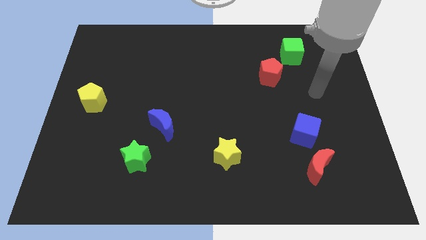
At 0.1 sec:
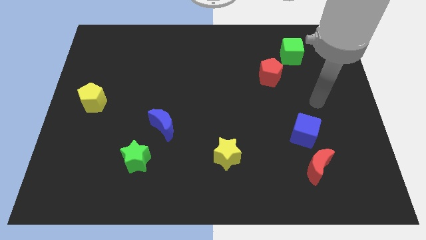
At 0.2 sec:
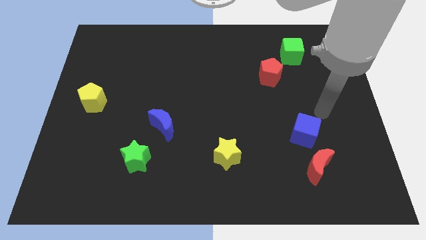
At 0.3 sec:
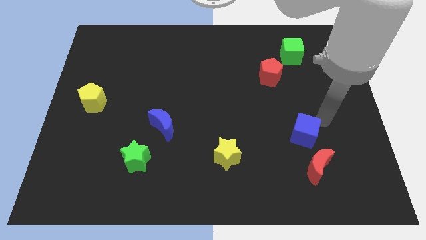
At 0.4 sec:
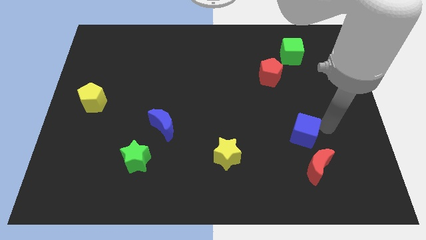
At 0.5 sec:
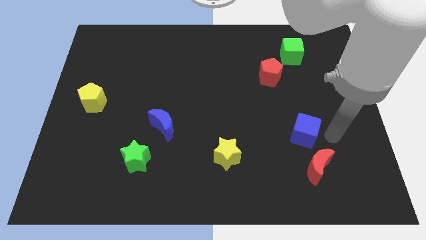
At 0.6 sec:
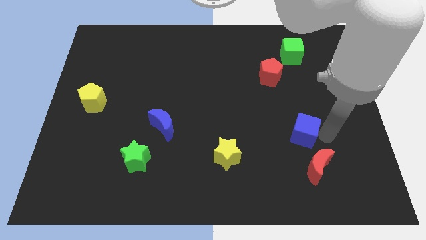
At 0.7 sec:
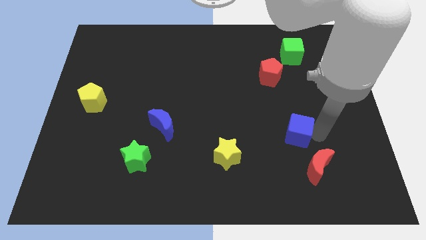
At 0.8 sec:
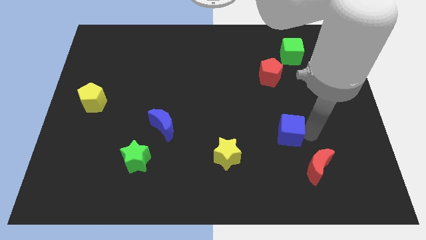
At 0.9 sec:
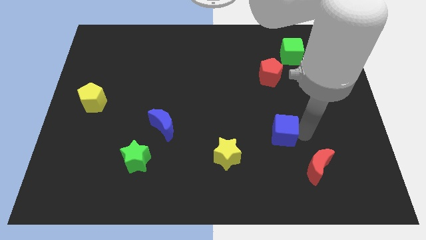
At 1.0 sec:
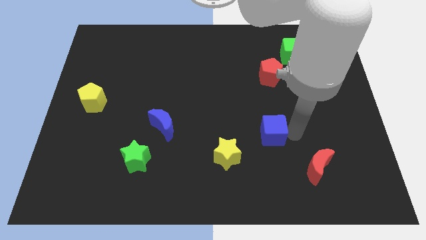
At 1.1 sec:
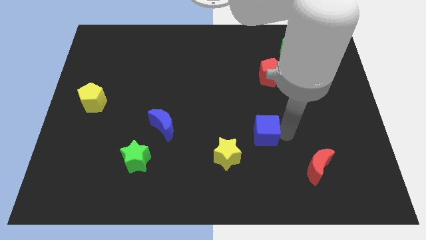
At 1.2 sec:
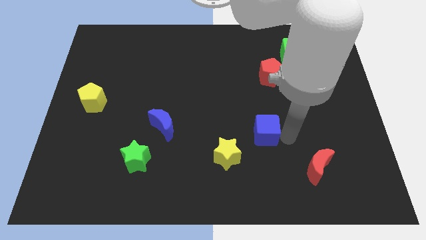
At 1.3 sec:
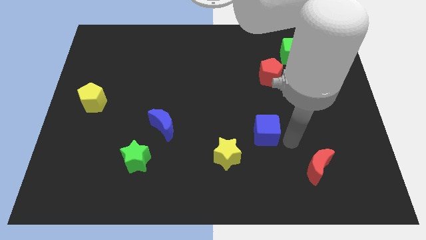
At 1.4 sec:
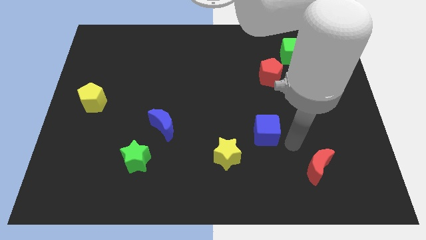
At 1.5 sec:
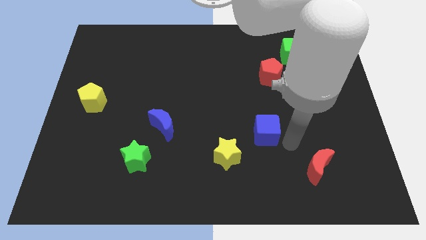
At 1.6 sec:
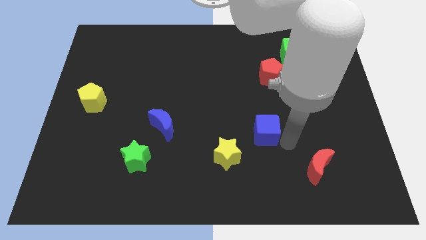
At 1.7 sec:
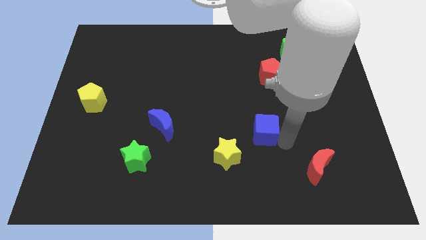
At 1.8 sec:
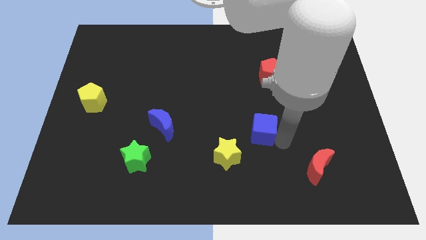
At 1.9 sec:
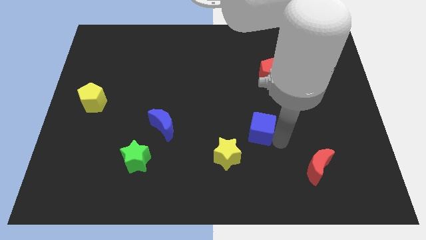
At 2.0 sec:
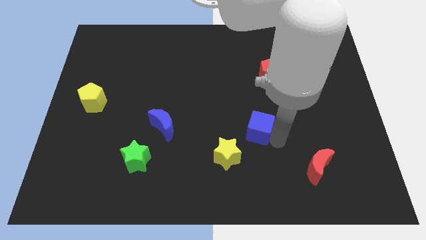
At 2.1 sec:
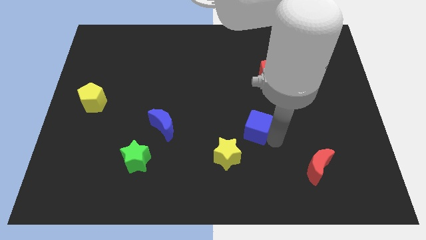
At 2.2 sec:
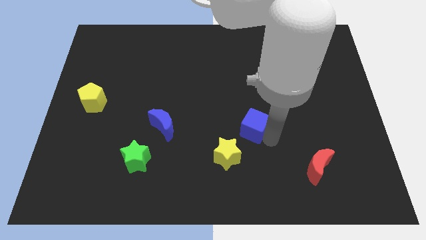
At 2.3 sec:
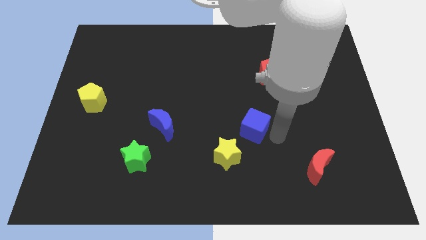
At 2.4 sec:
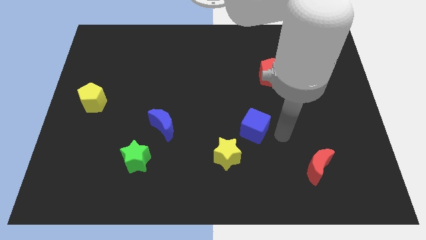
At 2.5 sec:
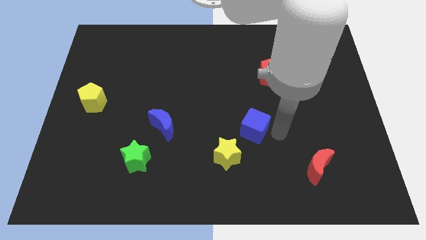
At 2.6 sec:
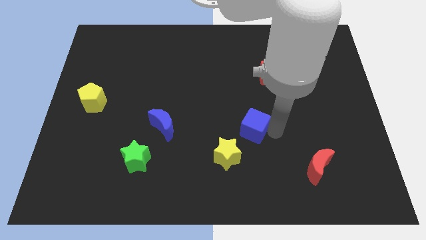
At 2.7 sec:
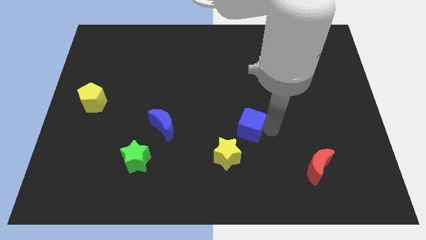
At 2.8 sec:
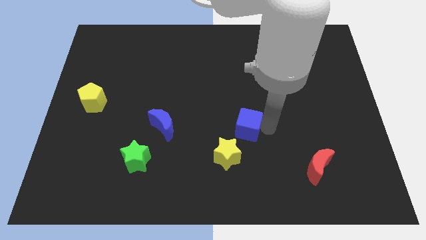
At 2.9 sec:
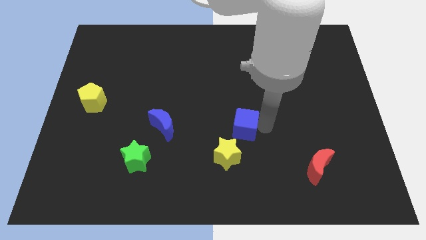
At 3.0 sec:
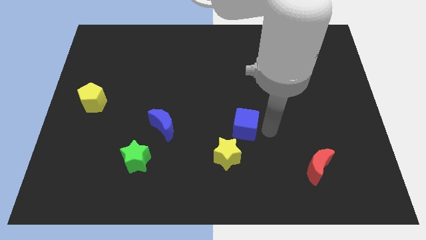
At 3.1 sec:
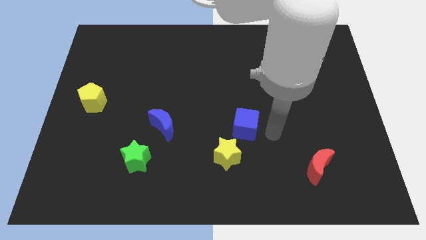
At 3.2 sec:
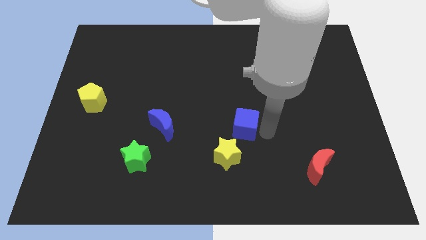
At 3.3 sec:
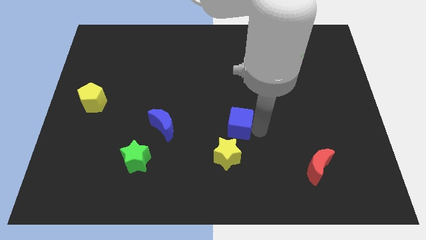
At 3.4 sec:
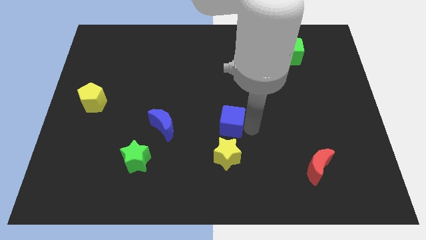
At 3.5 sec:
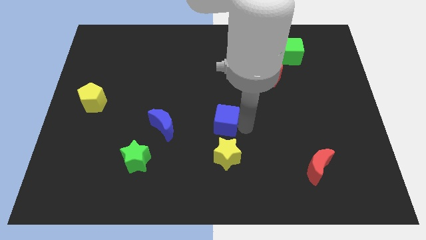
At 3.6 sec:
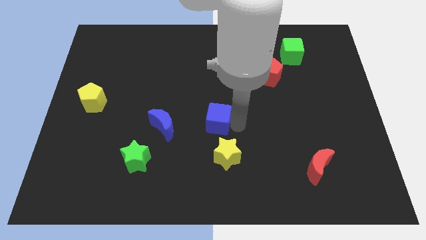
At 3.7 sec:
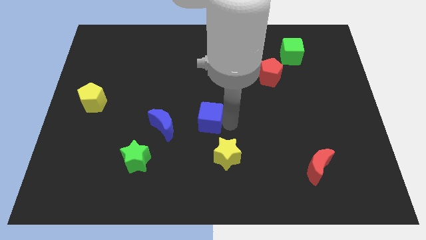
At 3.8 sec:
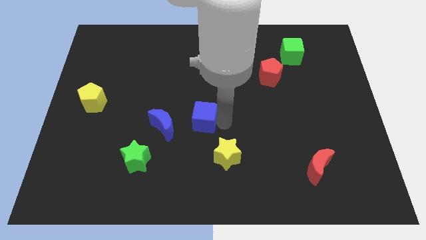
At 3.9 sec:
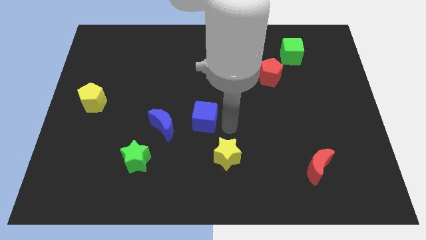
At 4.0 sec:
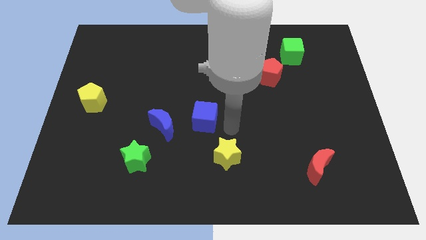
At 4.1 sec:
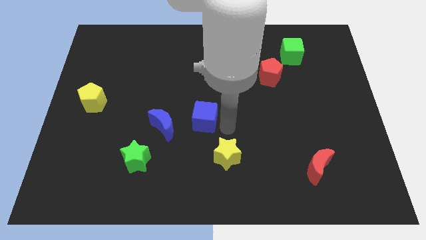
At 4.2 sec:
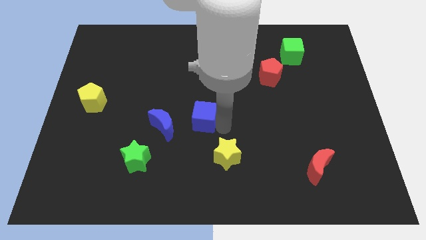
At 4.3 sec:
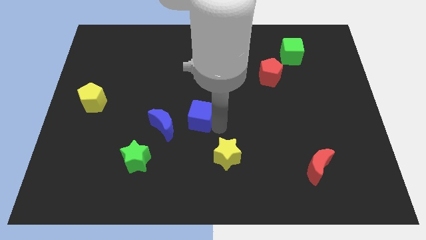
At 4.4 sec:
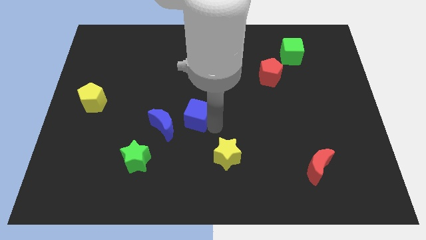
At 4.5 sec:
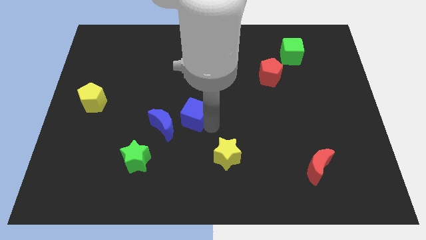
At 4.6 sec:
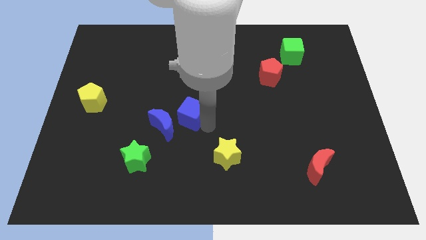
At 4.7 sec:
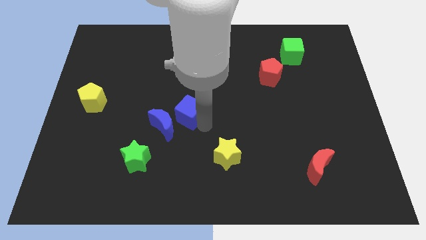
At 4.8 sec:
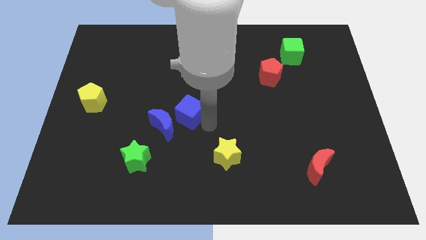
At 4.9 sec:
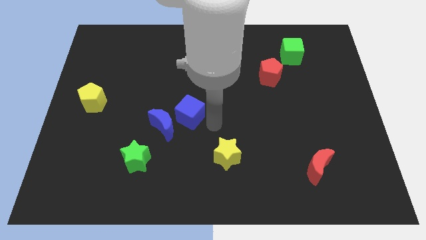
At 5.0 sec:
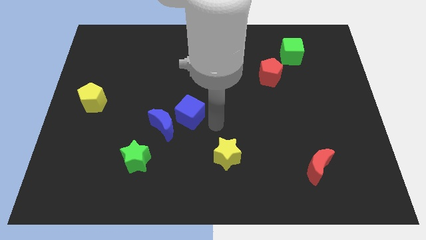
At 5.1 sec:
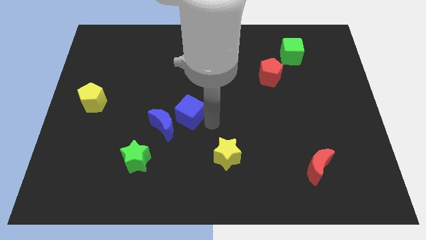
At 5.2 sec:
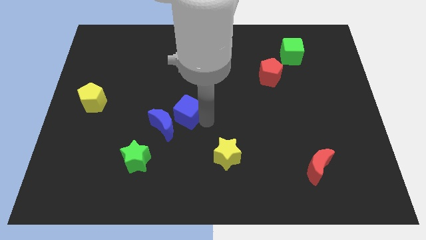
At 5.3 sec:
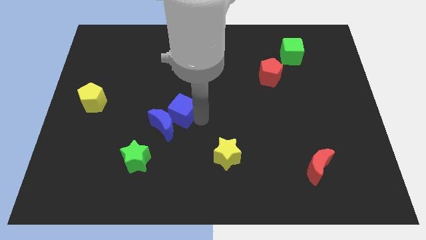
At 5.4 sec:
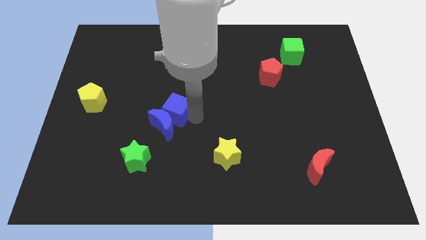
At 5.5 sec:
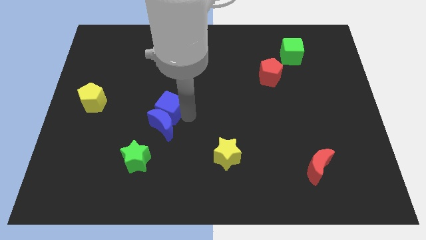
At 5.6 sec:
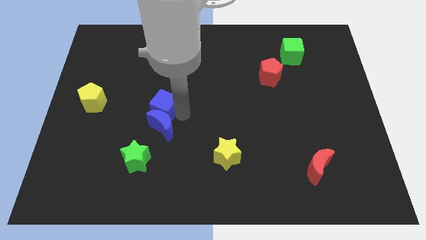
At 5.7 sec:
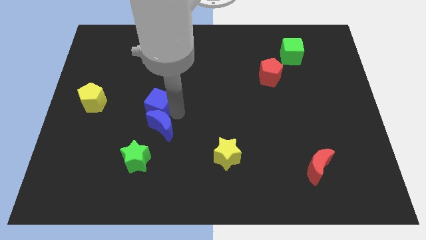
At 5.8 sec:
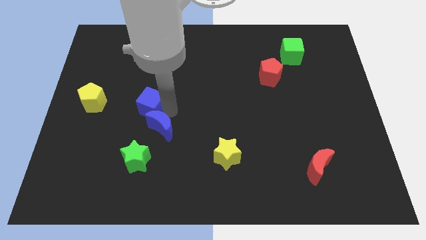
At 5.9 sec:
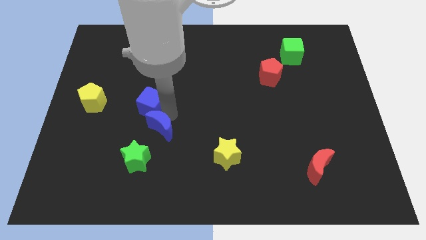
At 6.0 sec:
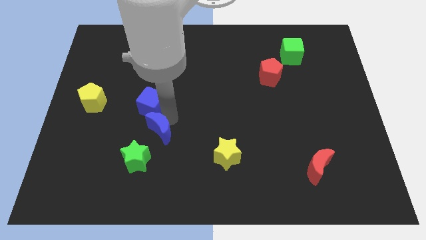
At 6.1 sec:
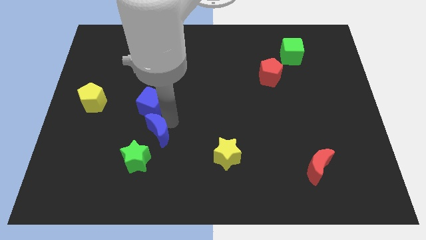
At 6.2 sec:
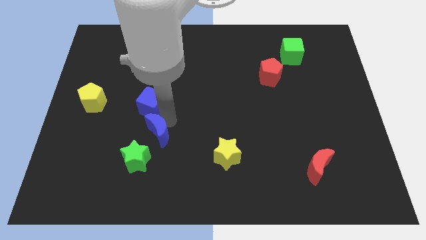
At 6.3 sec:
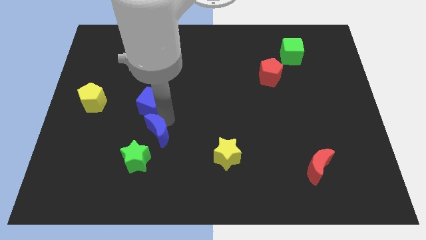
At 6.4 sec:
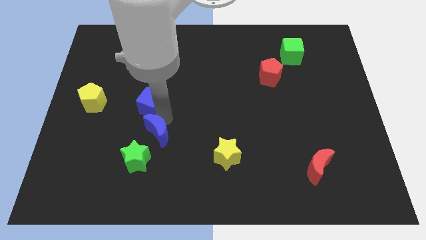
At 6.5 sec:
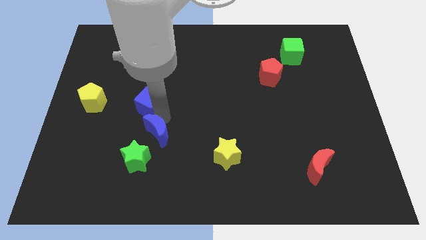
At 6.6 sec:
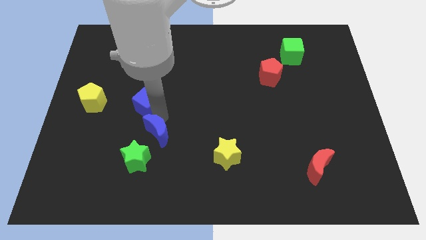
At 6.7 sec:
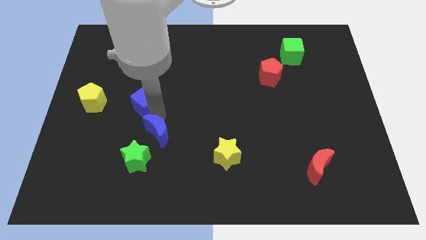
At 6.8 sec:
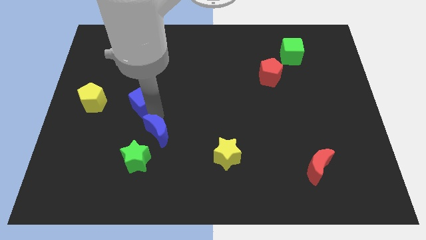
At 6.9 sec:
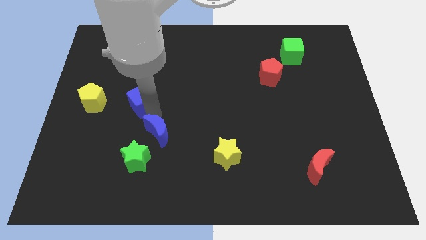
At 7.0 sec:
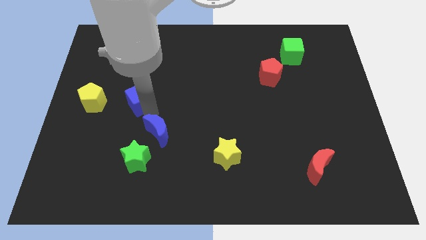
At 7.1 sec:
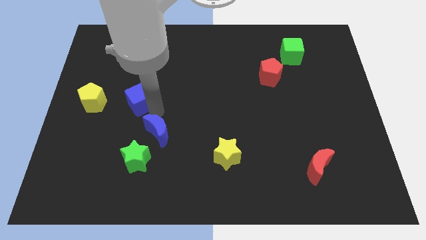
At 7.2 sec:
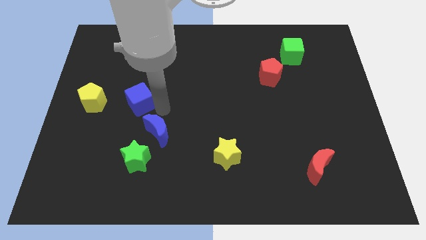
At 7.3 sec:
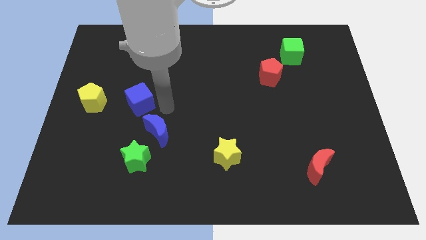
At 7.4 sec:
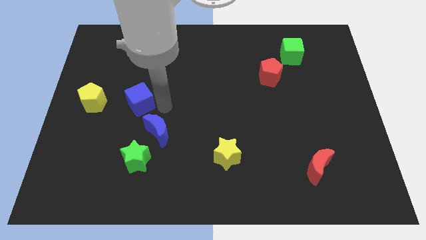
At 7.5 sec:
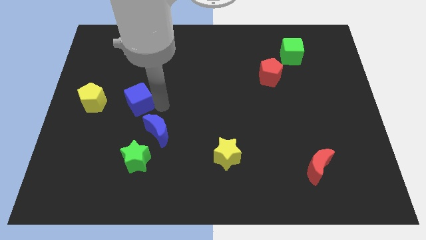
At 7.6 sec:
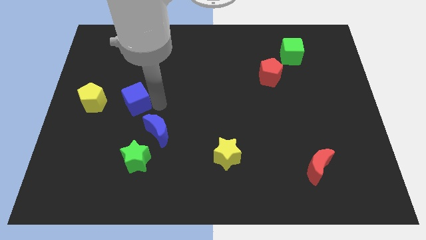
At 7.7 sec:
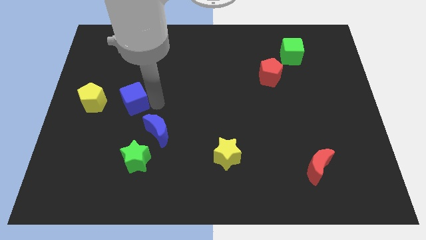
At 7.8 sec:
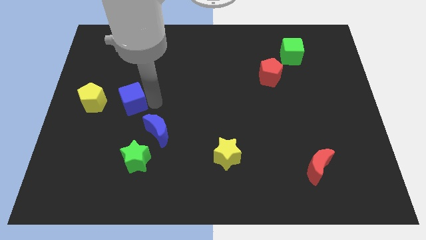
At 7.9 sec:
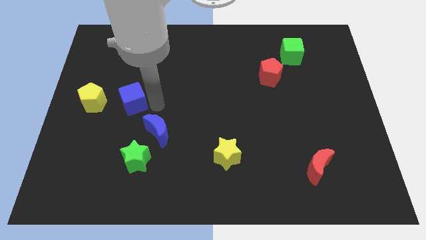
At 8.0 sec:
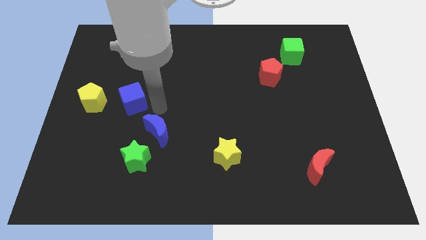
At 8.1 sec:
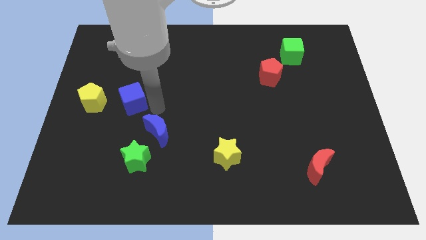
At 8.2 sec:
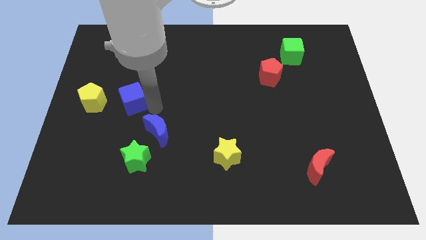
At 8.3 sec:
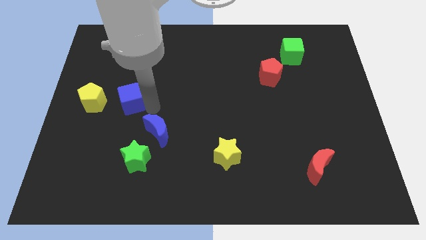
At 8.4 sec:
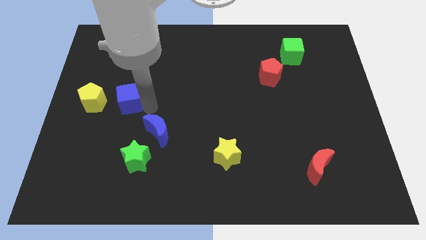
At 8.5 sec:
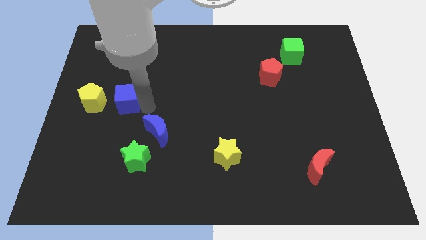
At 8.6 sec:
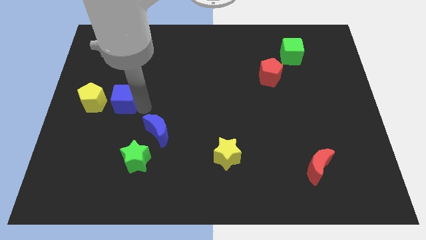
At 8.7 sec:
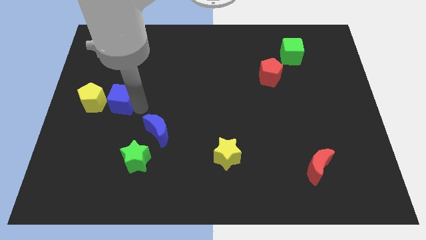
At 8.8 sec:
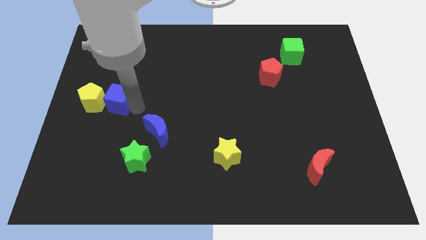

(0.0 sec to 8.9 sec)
slide the blue cube next to the yellow pentagon
